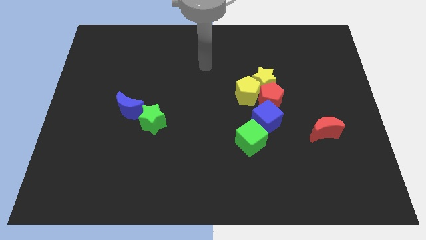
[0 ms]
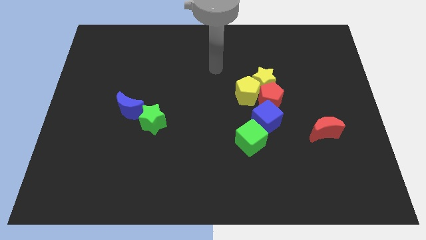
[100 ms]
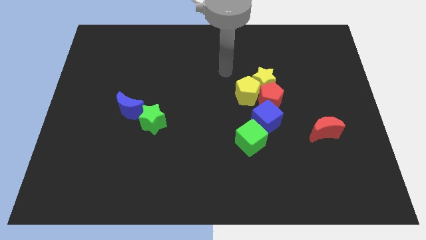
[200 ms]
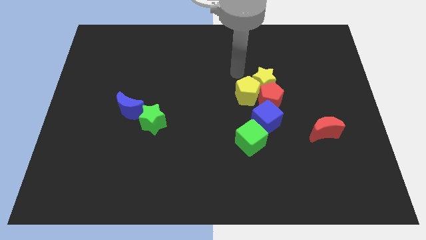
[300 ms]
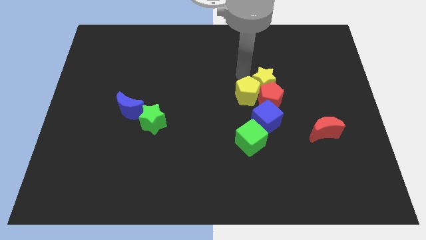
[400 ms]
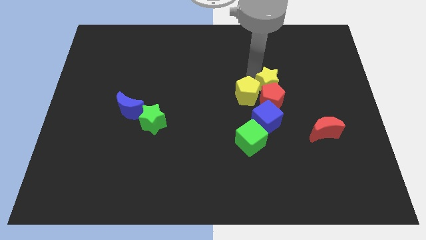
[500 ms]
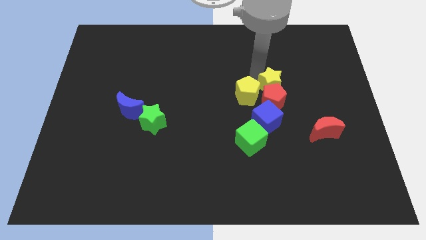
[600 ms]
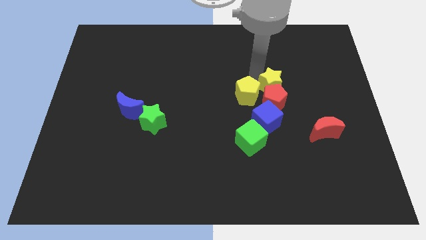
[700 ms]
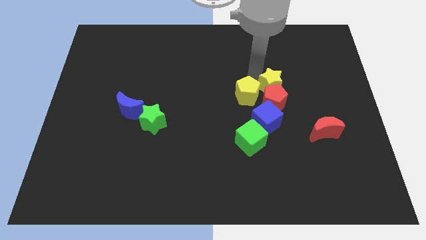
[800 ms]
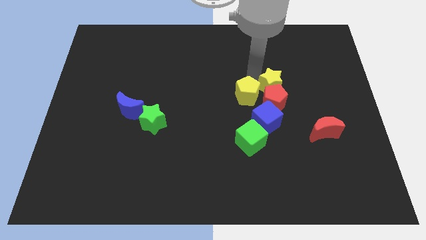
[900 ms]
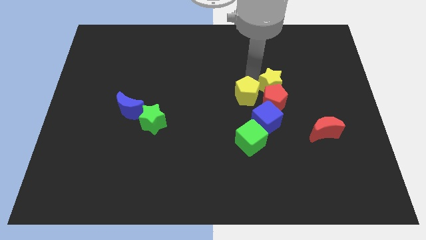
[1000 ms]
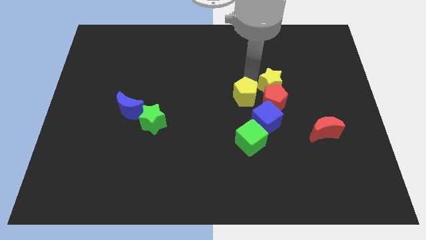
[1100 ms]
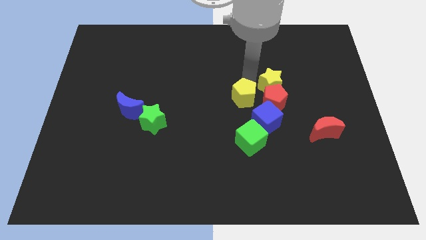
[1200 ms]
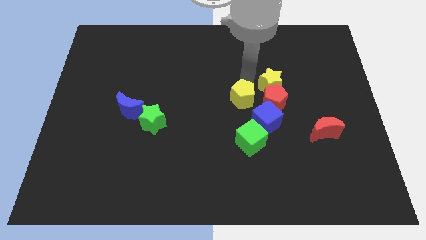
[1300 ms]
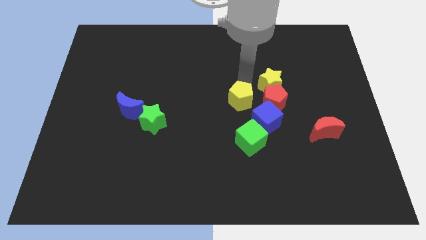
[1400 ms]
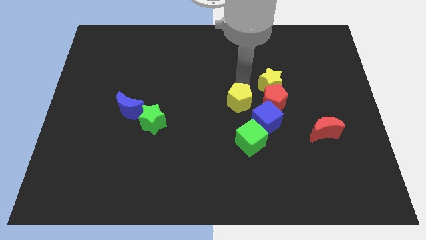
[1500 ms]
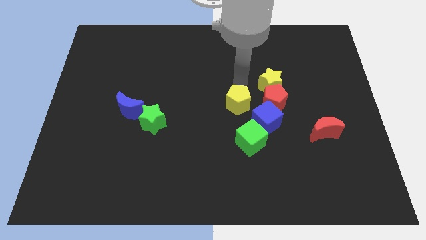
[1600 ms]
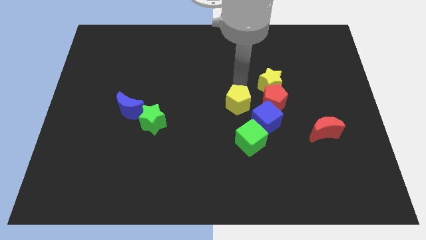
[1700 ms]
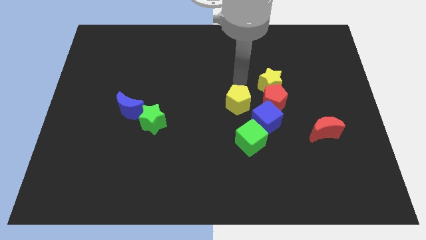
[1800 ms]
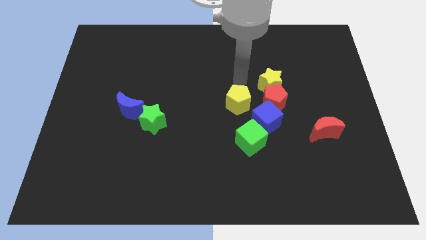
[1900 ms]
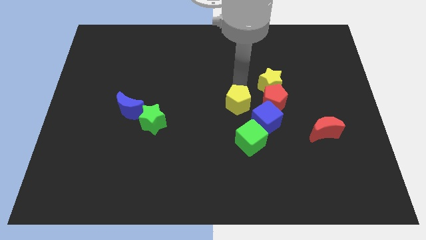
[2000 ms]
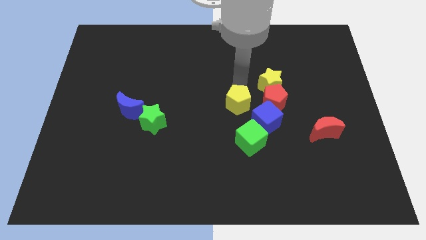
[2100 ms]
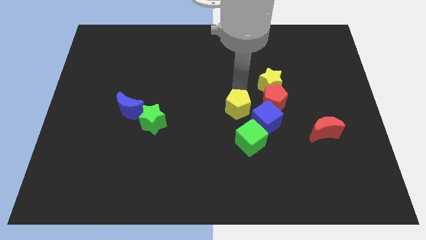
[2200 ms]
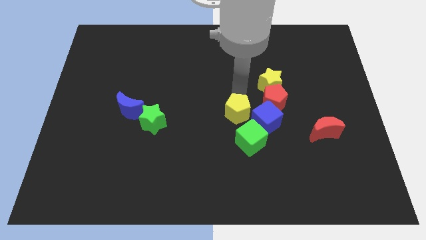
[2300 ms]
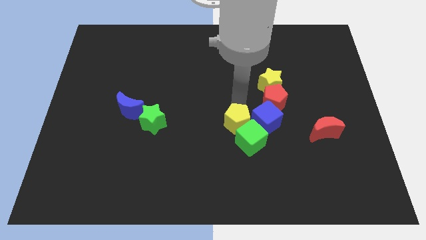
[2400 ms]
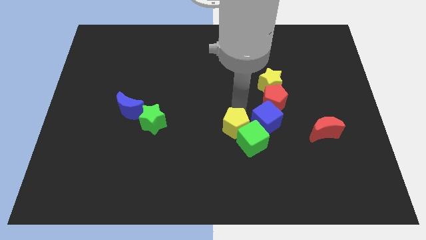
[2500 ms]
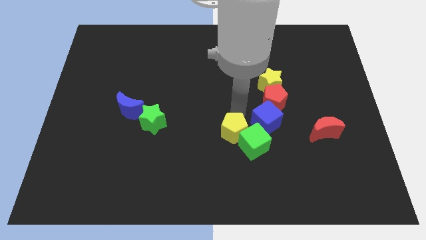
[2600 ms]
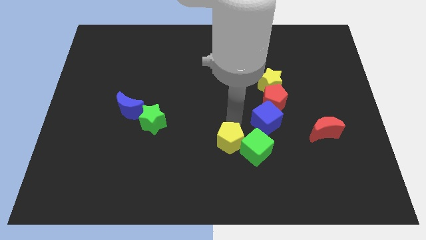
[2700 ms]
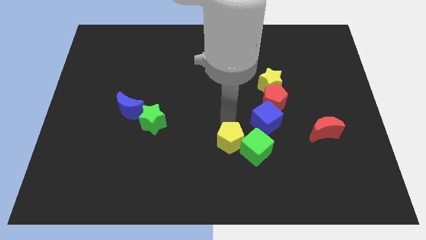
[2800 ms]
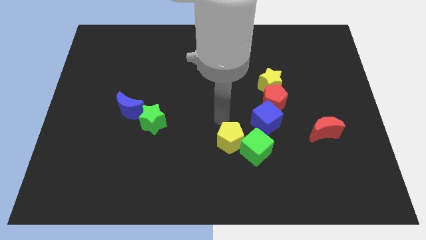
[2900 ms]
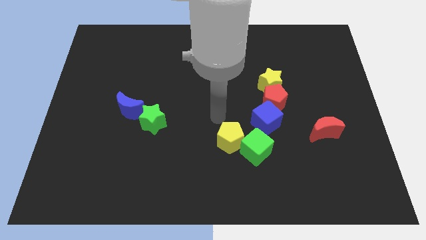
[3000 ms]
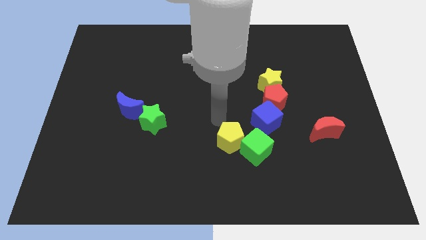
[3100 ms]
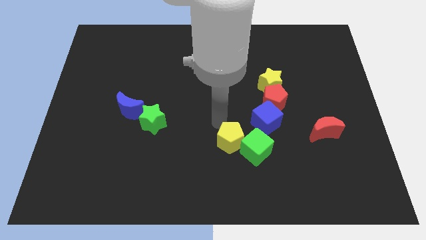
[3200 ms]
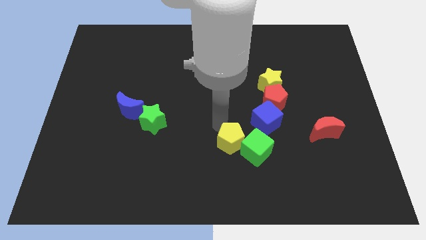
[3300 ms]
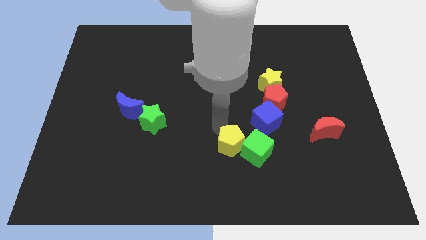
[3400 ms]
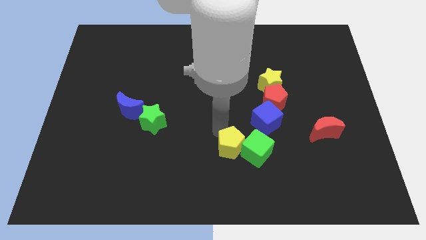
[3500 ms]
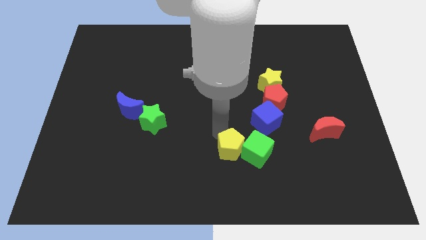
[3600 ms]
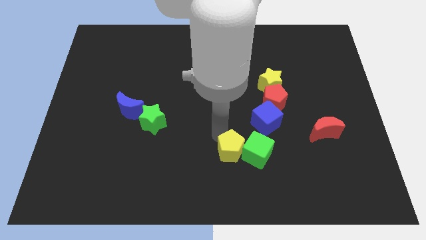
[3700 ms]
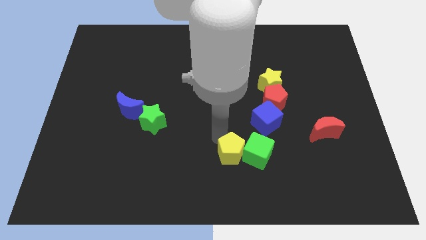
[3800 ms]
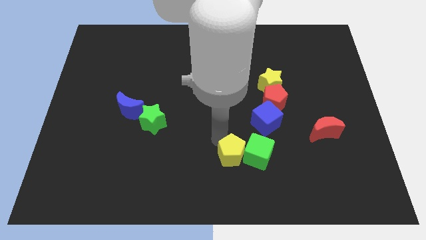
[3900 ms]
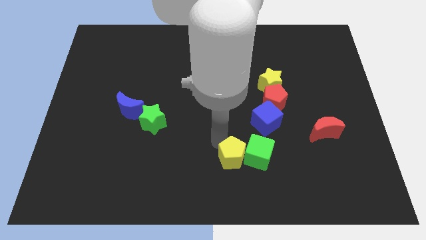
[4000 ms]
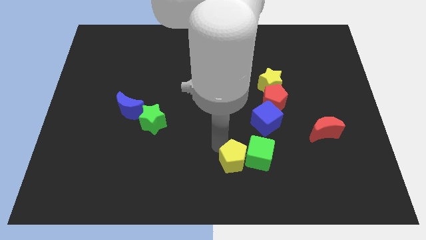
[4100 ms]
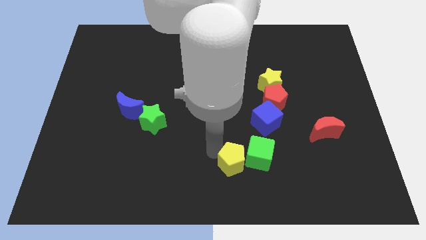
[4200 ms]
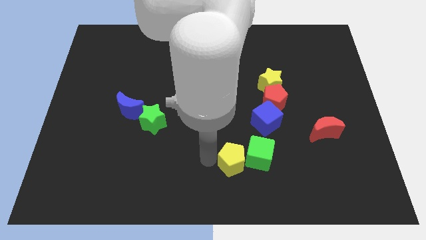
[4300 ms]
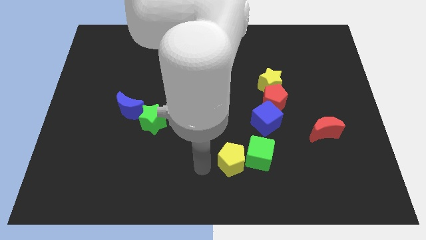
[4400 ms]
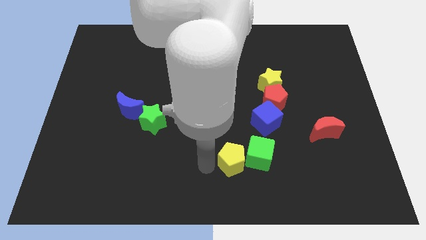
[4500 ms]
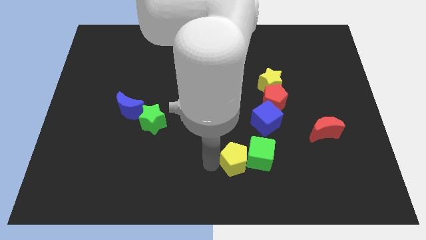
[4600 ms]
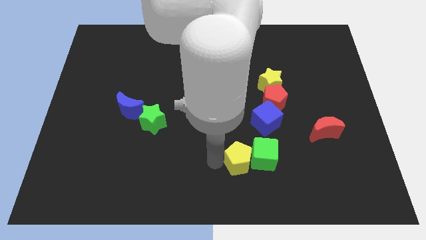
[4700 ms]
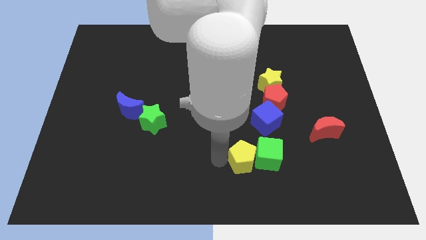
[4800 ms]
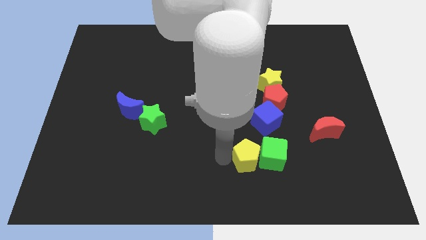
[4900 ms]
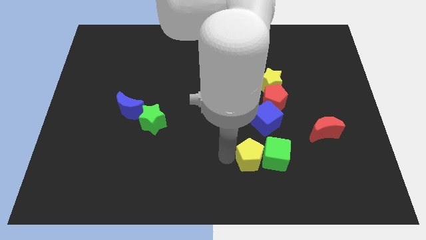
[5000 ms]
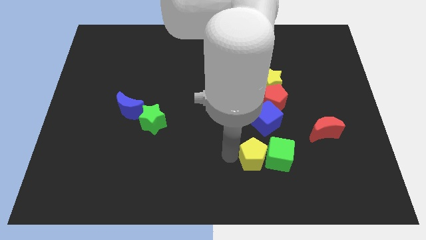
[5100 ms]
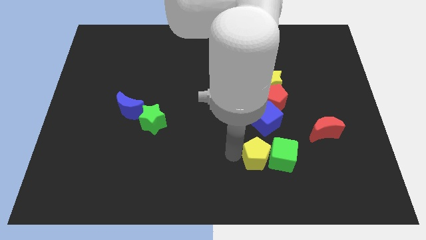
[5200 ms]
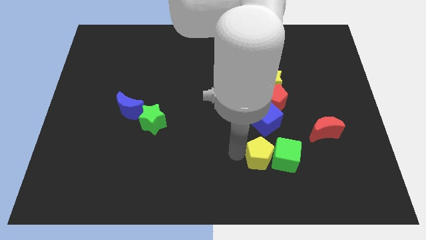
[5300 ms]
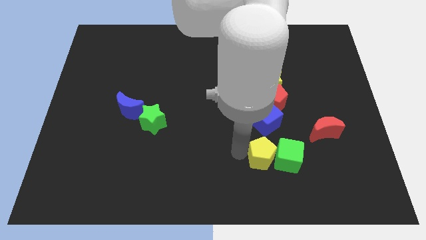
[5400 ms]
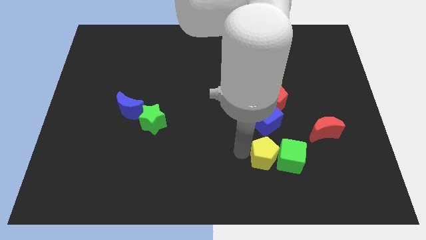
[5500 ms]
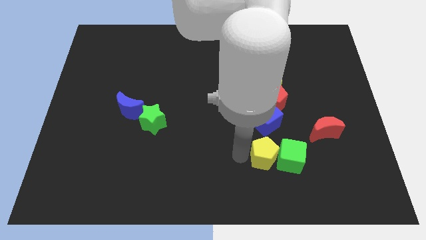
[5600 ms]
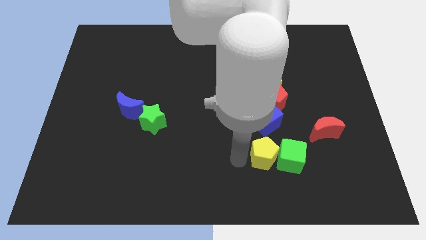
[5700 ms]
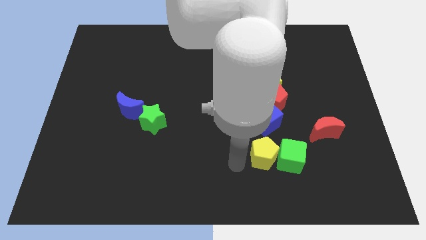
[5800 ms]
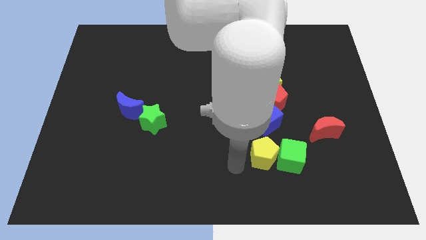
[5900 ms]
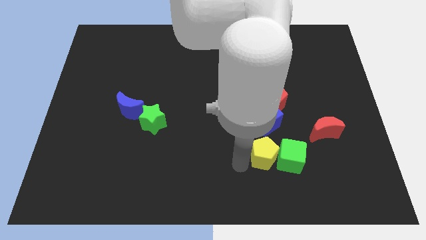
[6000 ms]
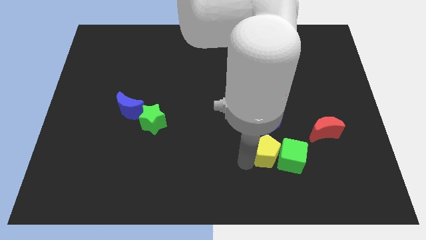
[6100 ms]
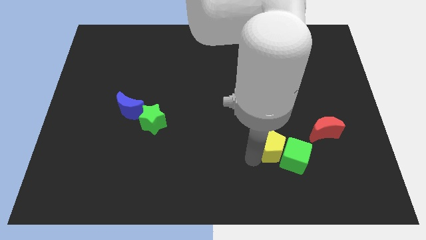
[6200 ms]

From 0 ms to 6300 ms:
slide the yellow pentagon diagonally down and to the right of the blue cube
